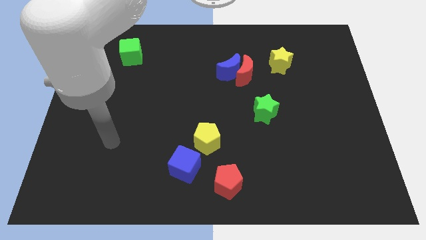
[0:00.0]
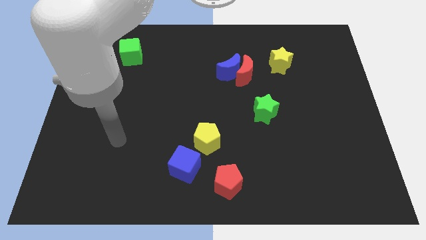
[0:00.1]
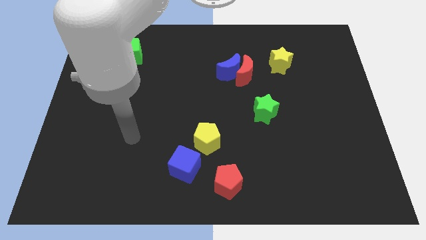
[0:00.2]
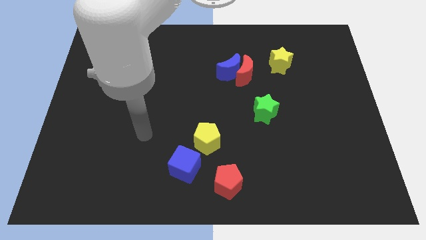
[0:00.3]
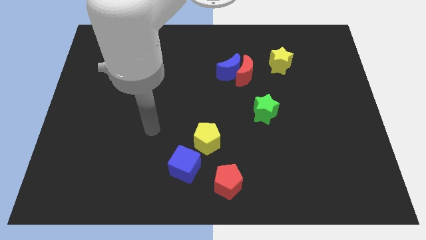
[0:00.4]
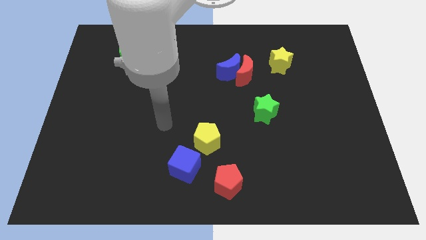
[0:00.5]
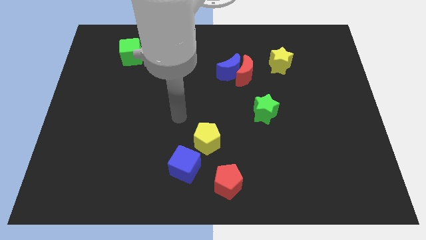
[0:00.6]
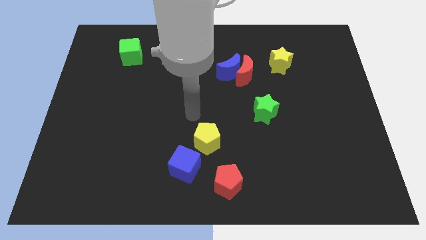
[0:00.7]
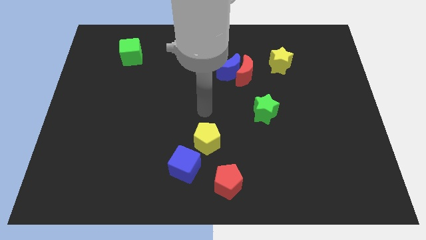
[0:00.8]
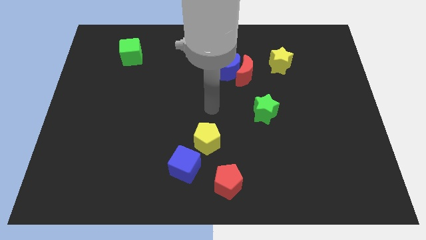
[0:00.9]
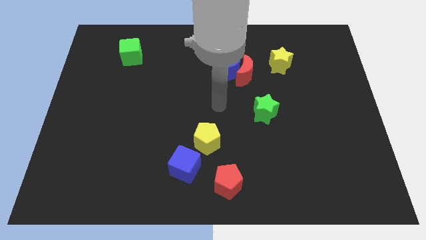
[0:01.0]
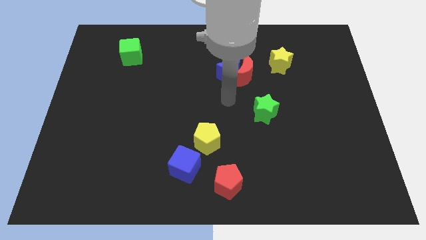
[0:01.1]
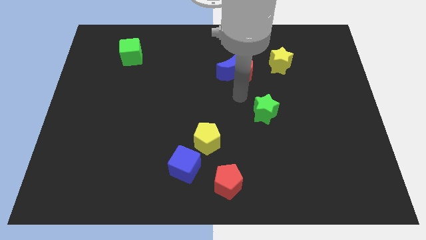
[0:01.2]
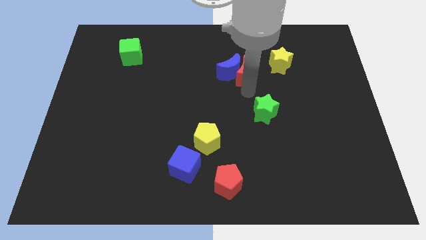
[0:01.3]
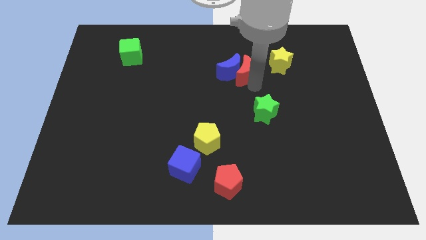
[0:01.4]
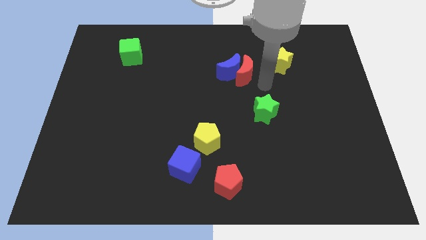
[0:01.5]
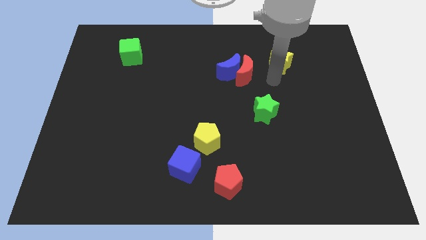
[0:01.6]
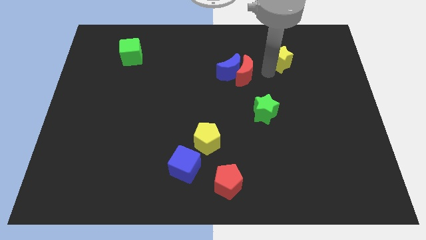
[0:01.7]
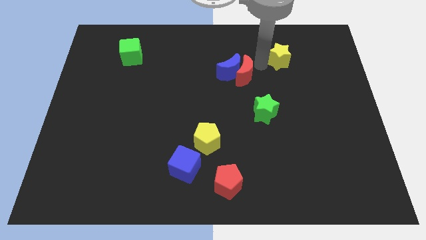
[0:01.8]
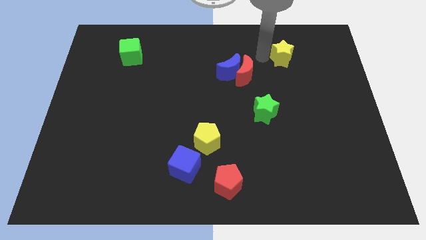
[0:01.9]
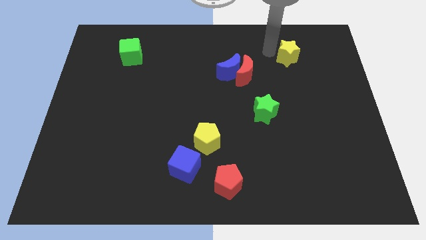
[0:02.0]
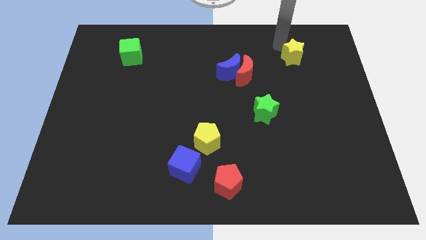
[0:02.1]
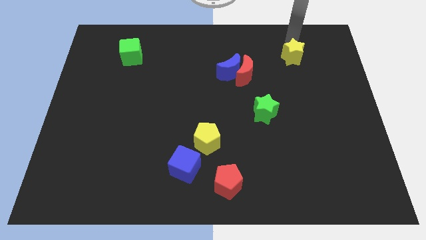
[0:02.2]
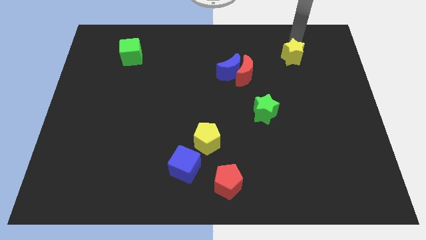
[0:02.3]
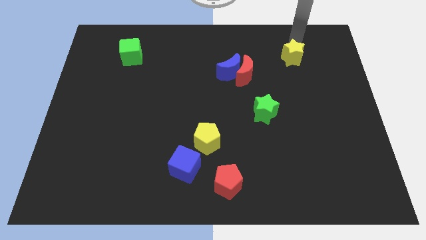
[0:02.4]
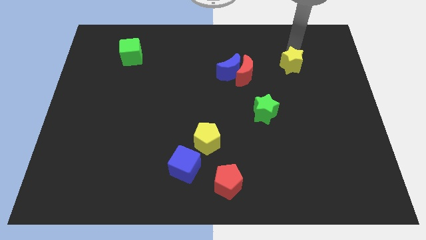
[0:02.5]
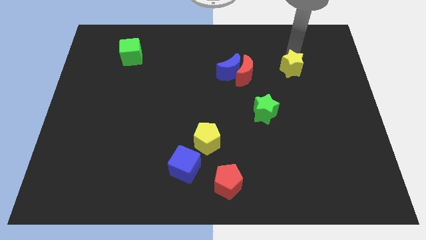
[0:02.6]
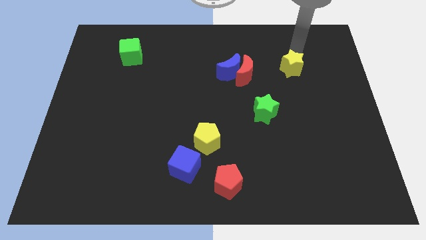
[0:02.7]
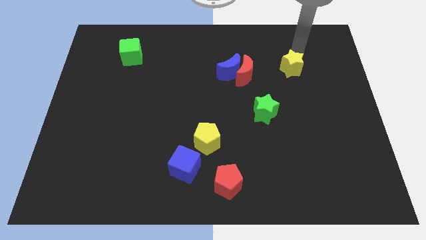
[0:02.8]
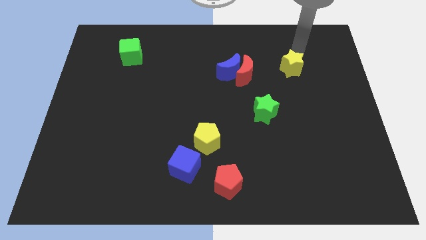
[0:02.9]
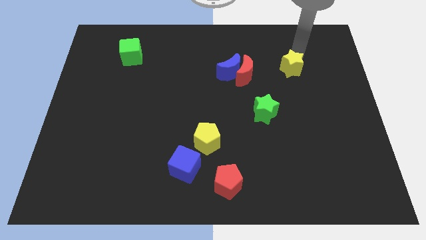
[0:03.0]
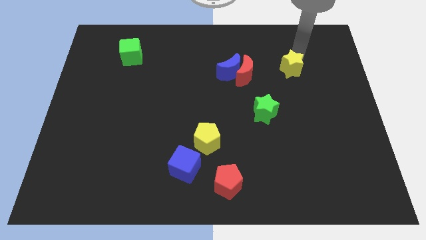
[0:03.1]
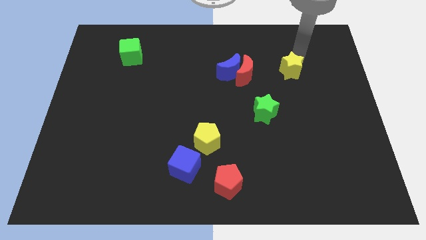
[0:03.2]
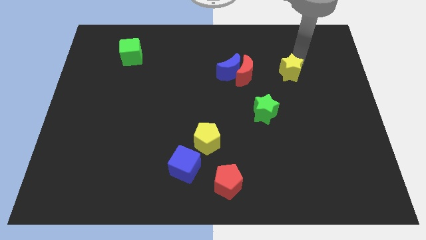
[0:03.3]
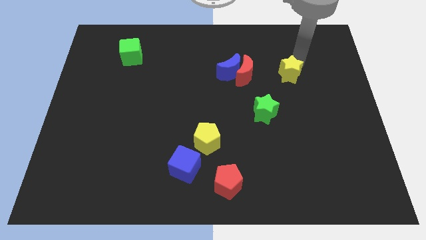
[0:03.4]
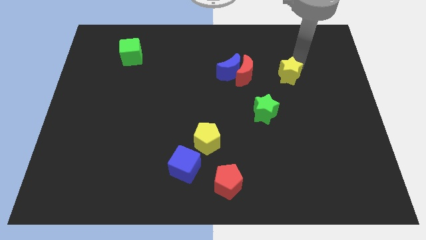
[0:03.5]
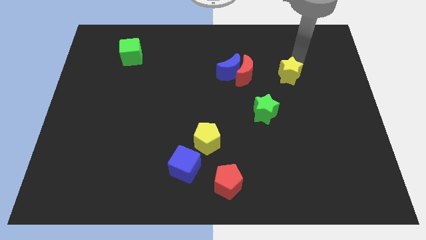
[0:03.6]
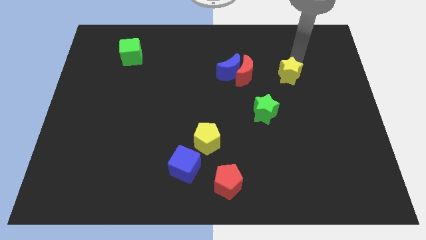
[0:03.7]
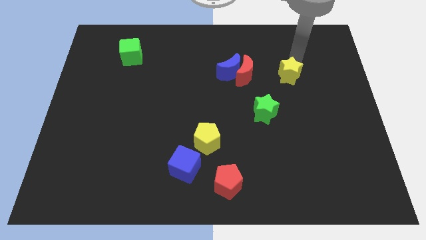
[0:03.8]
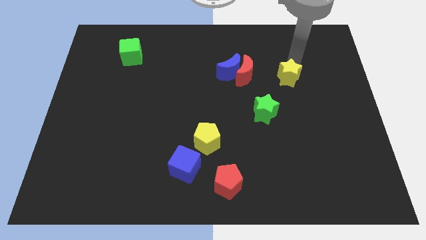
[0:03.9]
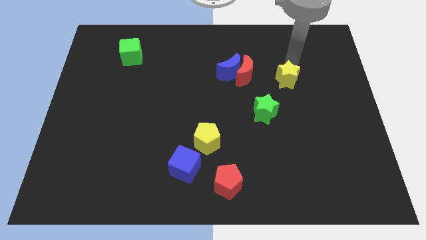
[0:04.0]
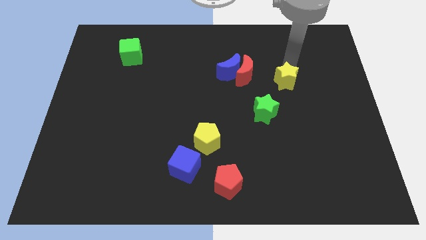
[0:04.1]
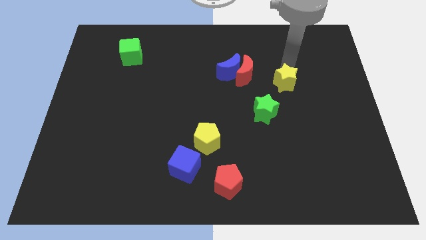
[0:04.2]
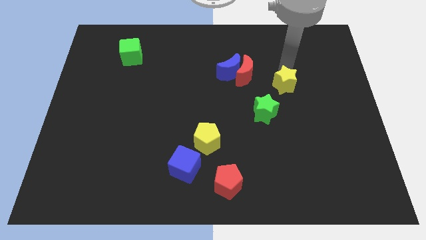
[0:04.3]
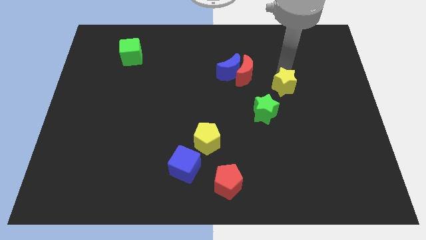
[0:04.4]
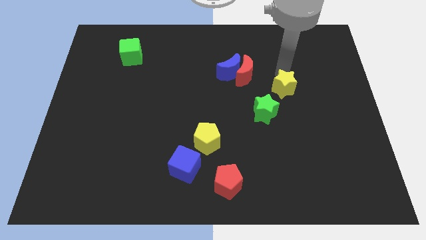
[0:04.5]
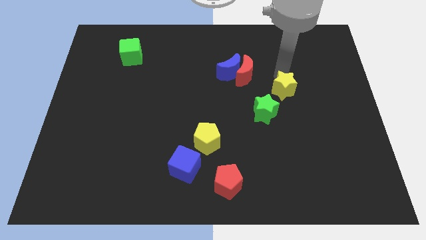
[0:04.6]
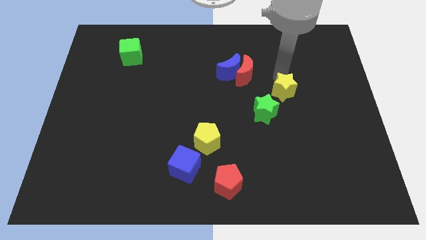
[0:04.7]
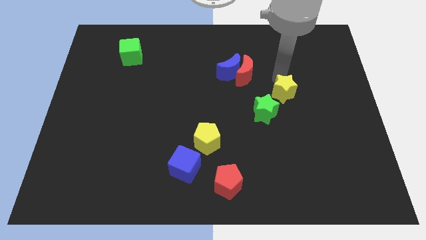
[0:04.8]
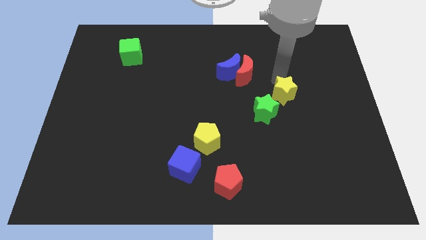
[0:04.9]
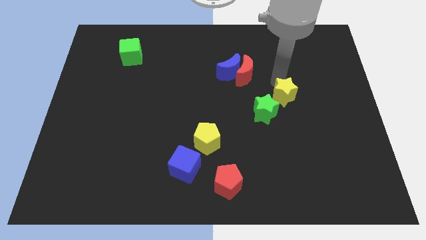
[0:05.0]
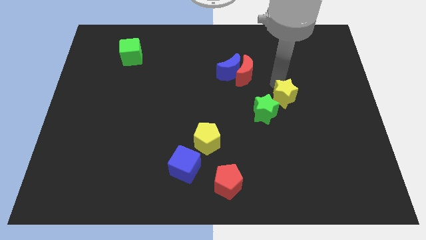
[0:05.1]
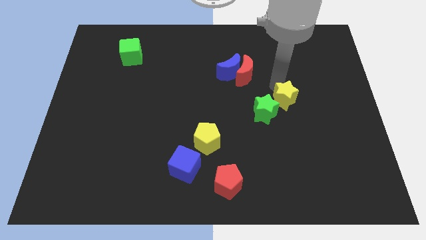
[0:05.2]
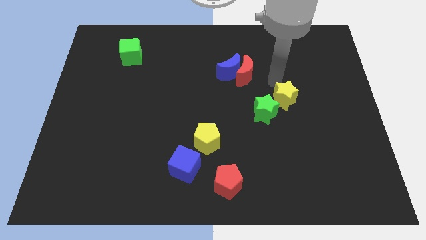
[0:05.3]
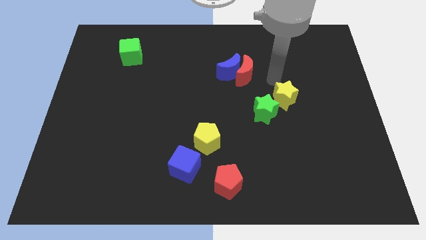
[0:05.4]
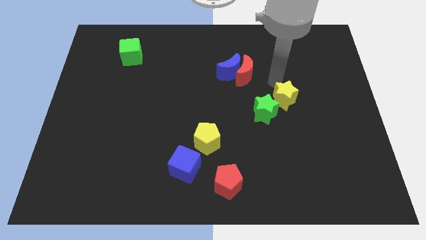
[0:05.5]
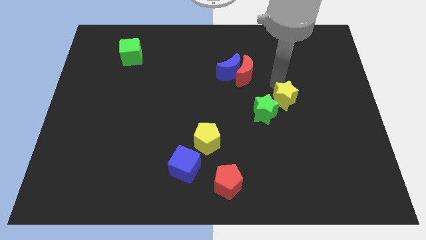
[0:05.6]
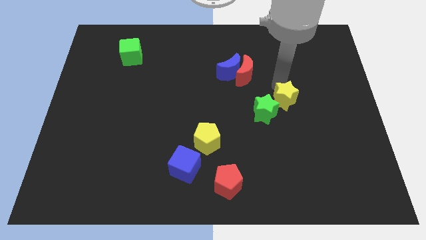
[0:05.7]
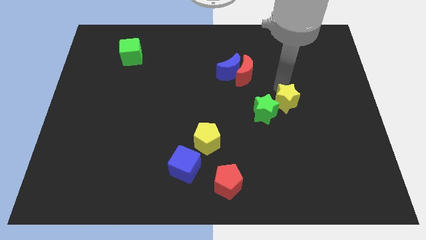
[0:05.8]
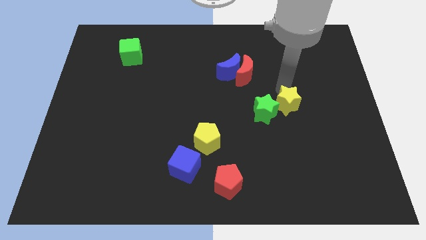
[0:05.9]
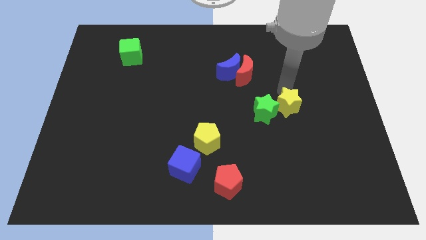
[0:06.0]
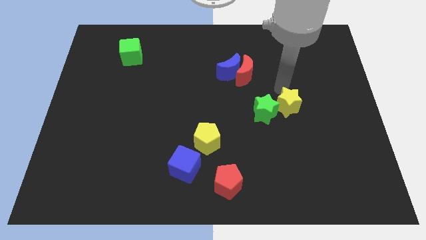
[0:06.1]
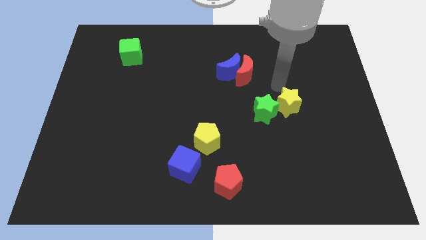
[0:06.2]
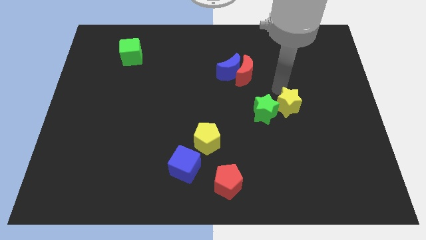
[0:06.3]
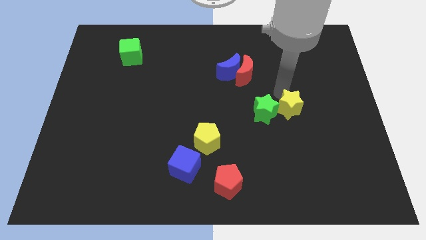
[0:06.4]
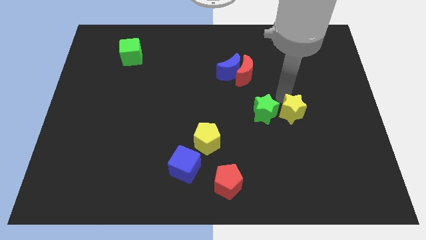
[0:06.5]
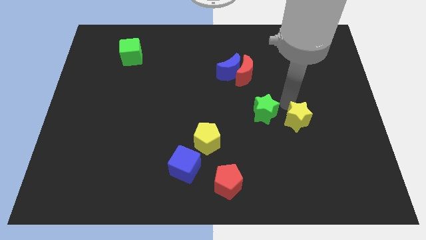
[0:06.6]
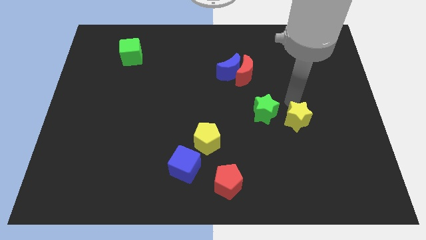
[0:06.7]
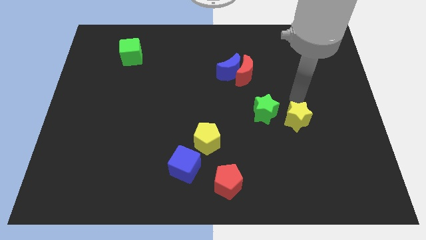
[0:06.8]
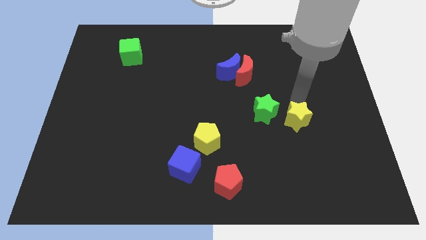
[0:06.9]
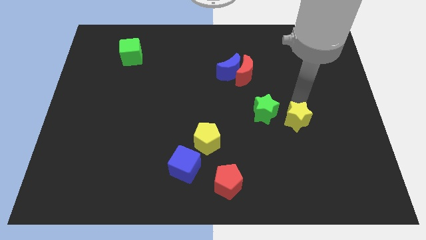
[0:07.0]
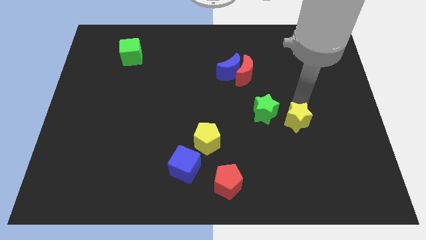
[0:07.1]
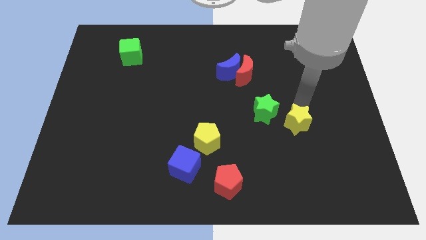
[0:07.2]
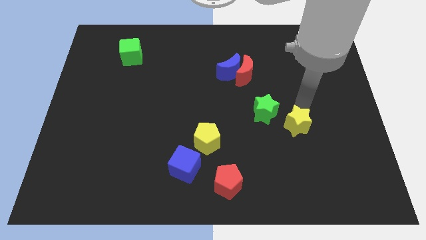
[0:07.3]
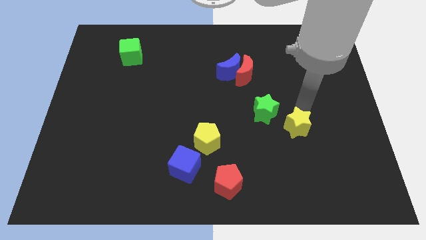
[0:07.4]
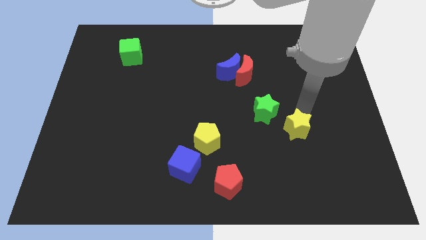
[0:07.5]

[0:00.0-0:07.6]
slide the yellow star downwards

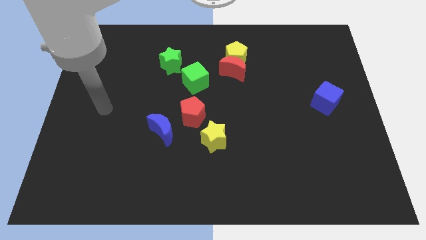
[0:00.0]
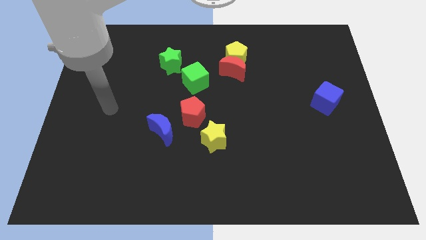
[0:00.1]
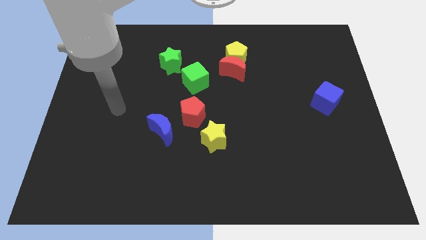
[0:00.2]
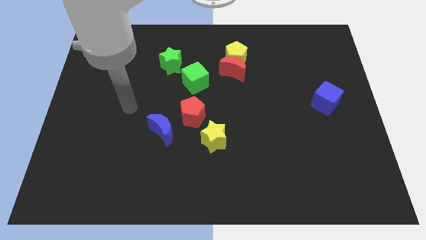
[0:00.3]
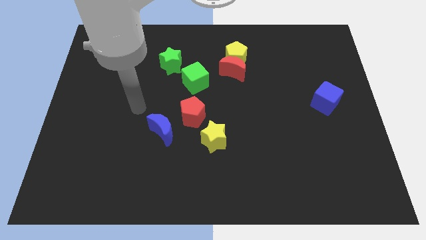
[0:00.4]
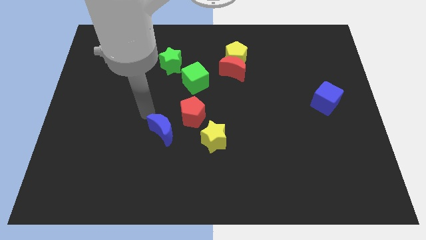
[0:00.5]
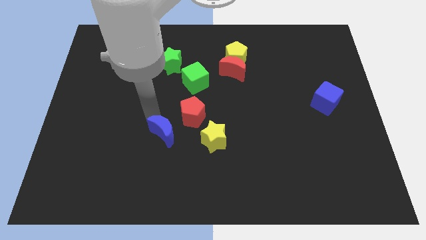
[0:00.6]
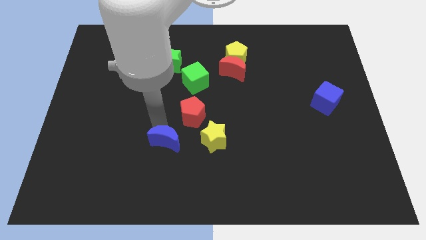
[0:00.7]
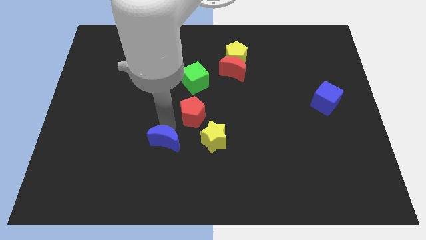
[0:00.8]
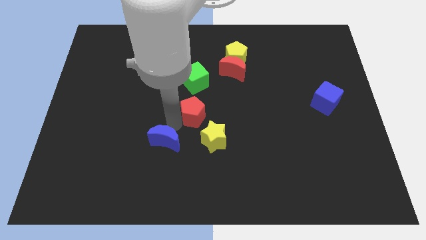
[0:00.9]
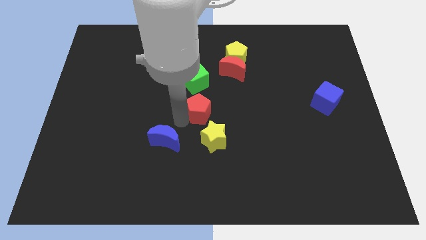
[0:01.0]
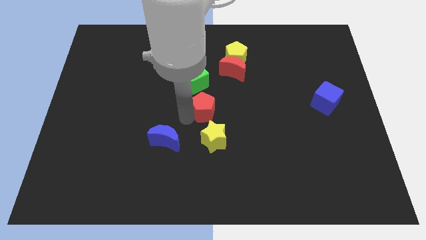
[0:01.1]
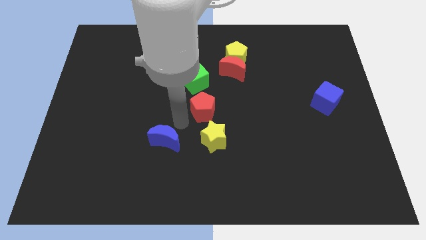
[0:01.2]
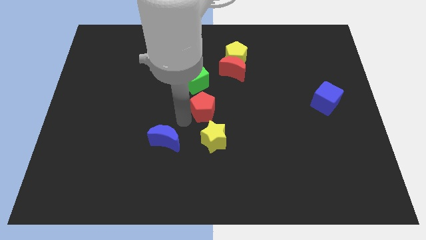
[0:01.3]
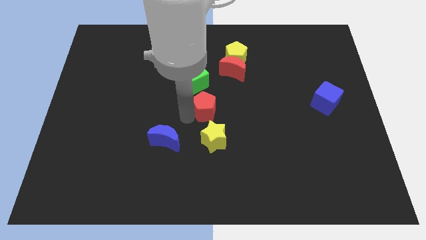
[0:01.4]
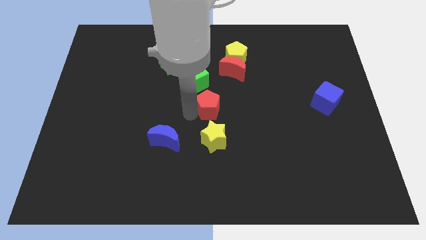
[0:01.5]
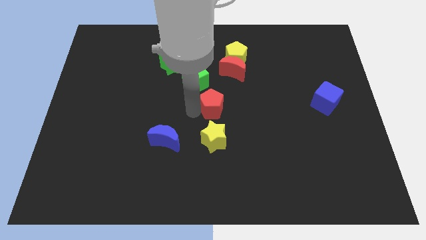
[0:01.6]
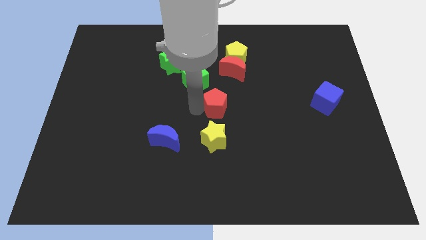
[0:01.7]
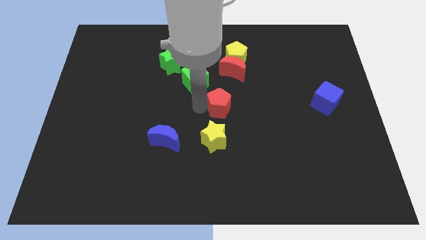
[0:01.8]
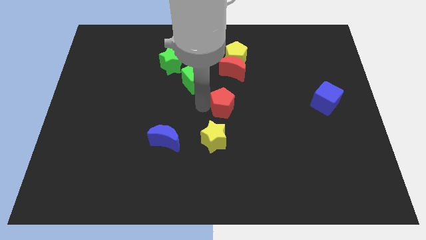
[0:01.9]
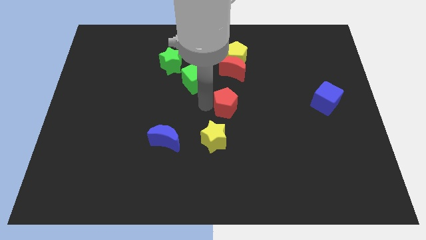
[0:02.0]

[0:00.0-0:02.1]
move the red pentagon slightly up and right
